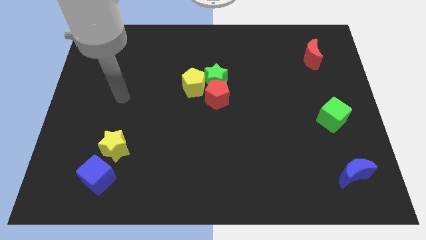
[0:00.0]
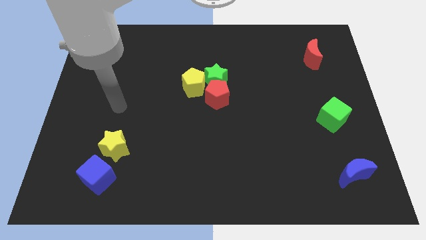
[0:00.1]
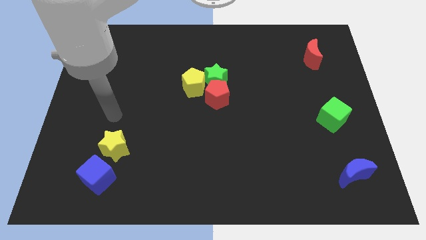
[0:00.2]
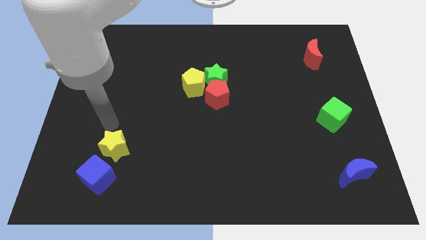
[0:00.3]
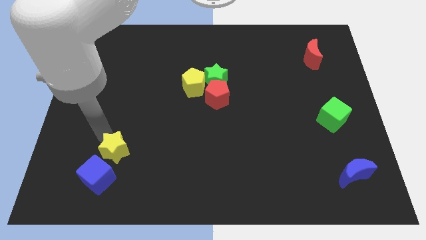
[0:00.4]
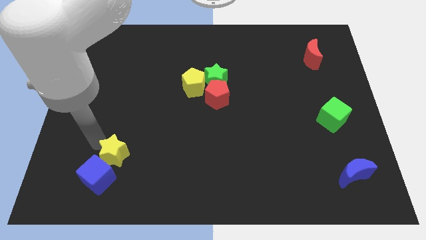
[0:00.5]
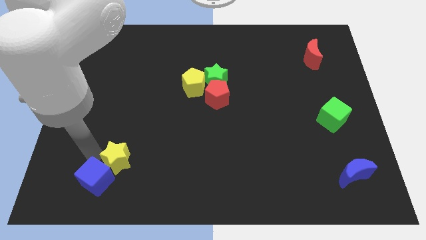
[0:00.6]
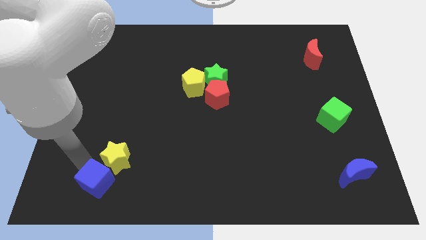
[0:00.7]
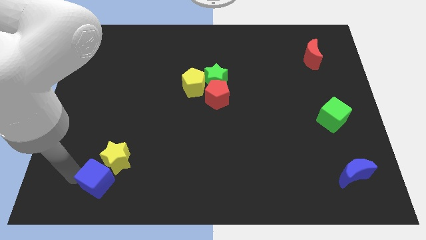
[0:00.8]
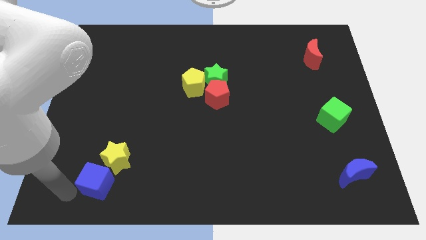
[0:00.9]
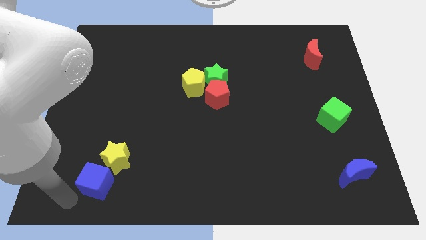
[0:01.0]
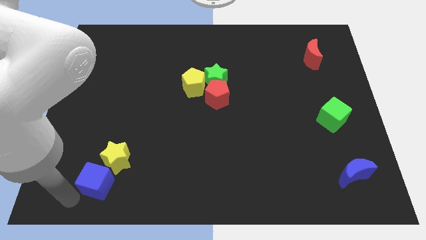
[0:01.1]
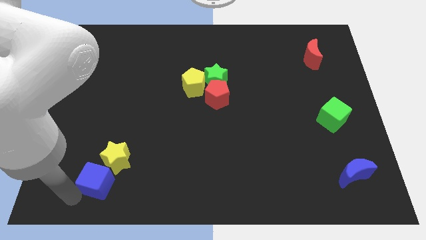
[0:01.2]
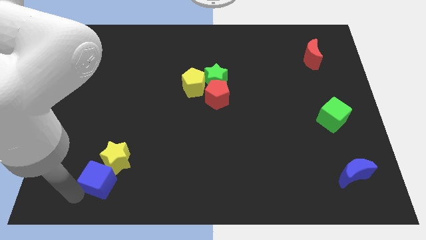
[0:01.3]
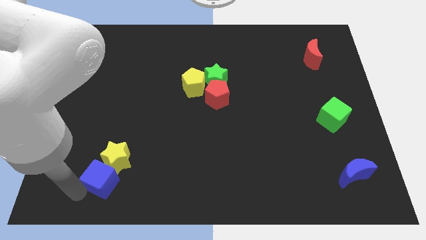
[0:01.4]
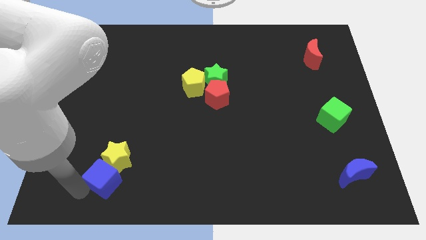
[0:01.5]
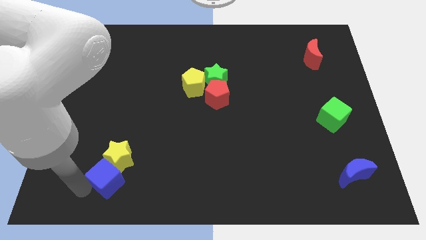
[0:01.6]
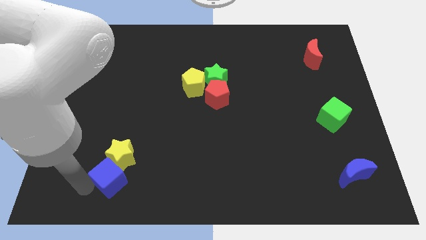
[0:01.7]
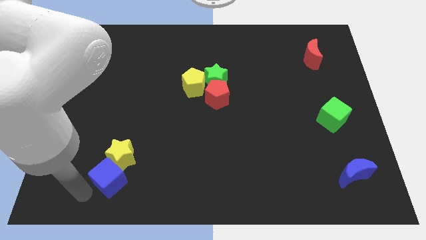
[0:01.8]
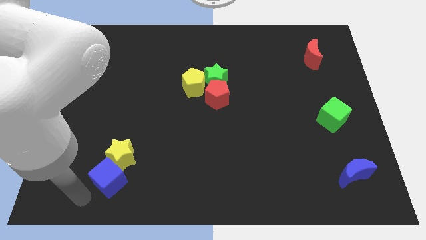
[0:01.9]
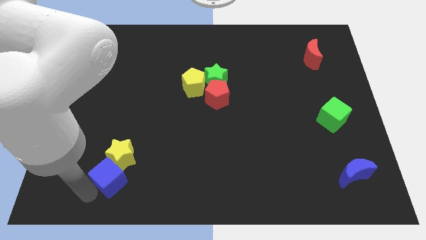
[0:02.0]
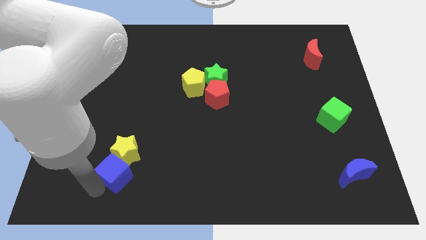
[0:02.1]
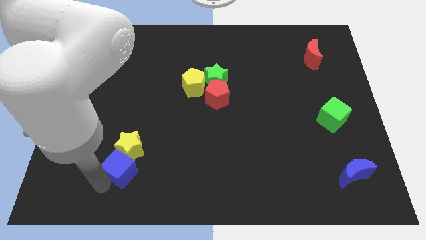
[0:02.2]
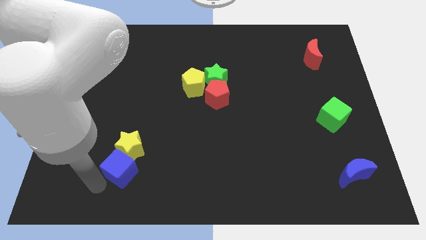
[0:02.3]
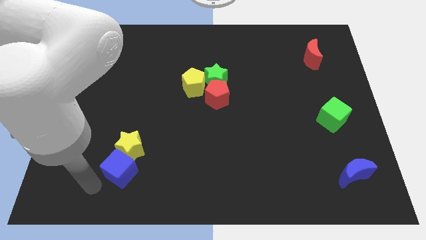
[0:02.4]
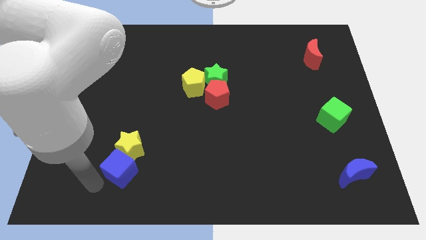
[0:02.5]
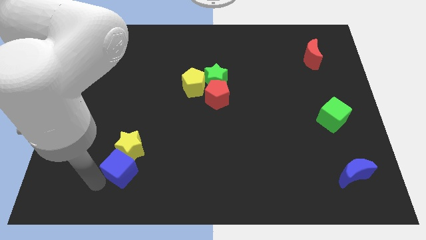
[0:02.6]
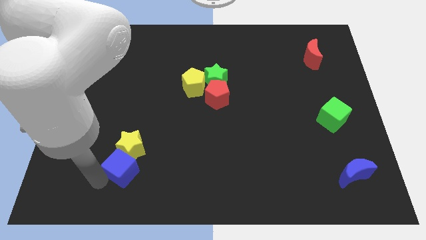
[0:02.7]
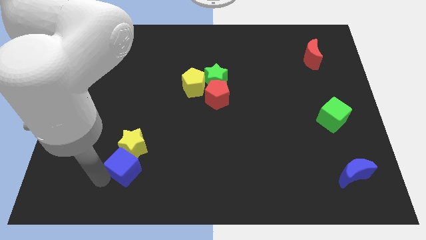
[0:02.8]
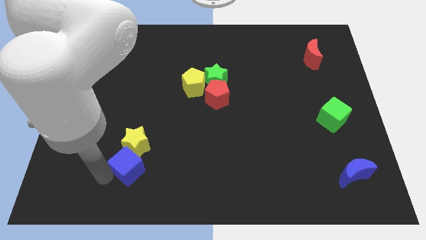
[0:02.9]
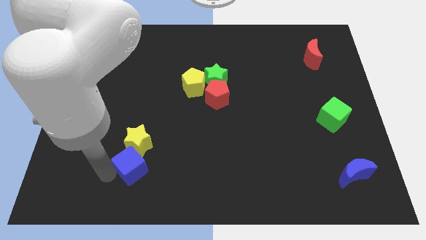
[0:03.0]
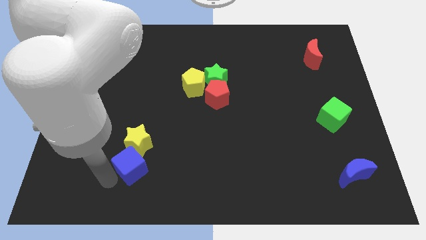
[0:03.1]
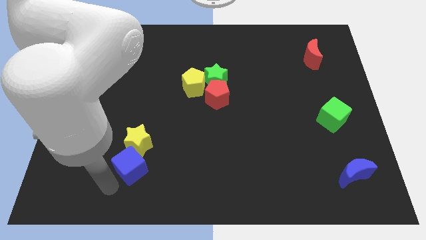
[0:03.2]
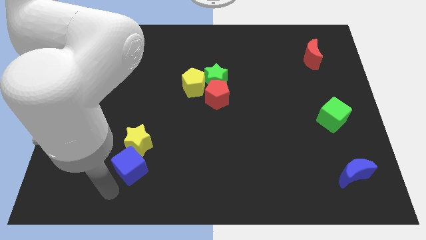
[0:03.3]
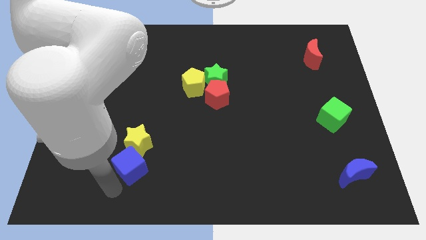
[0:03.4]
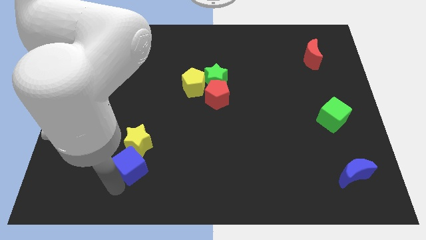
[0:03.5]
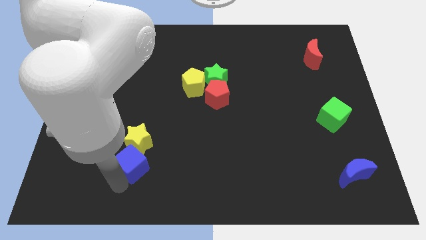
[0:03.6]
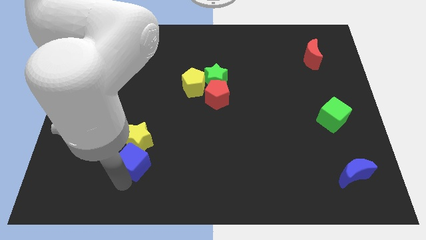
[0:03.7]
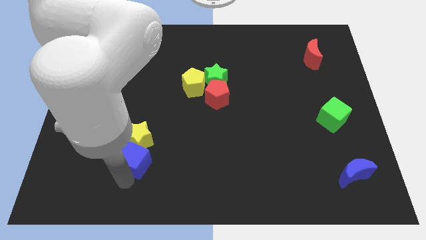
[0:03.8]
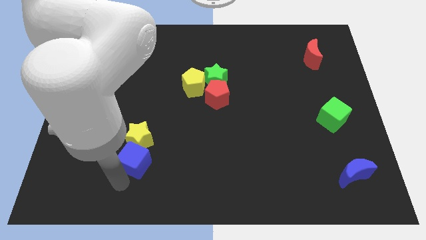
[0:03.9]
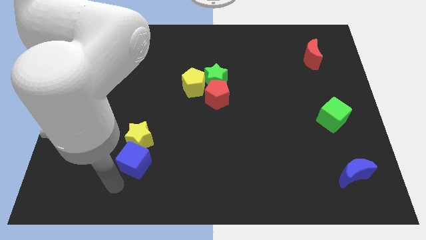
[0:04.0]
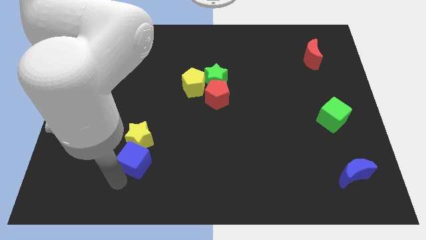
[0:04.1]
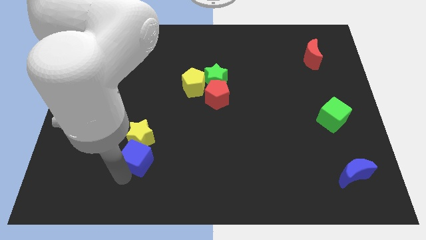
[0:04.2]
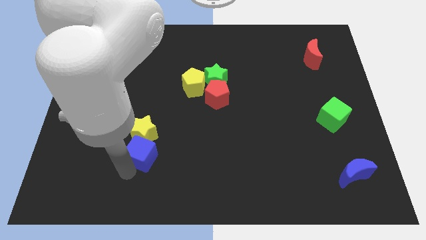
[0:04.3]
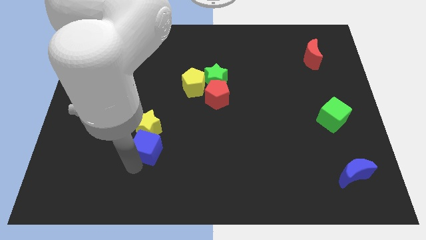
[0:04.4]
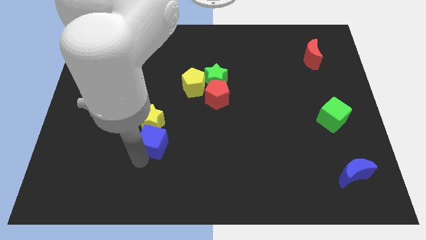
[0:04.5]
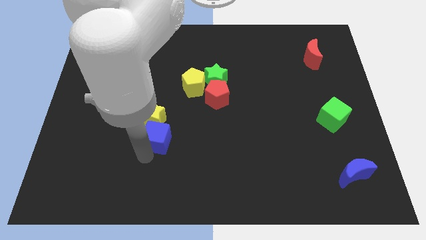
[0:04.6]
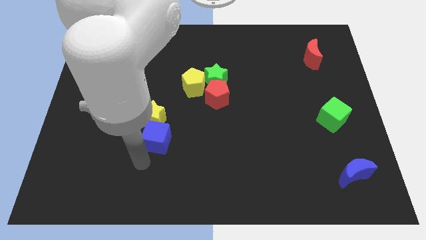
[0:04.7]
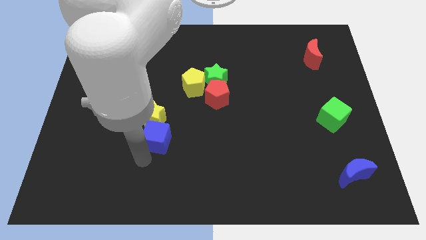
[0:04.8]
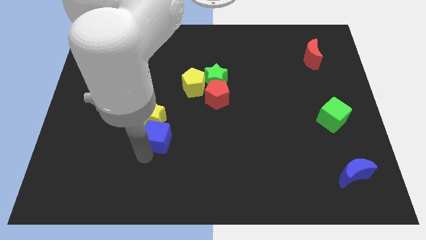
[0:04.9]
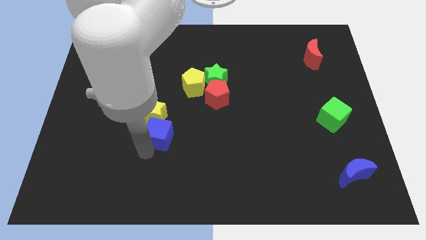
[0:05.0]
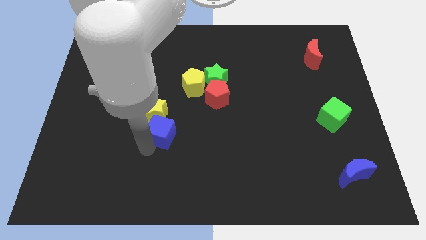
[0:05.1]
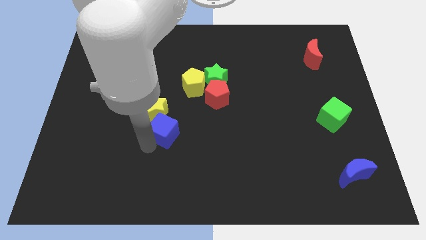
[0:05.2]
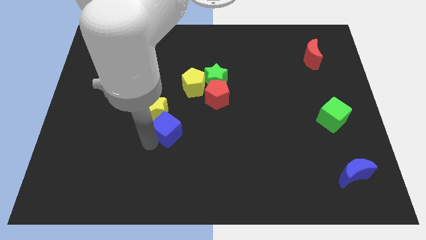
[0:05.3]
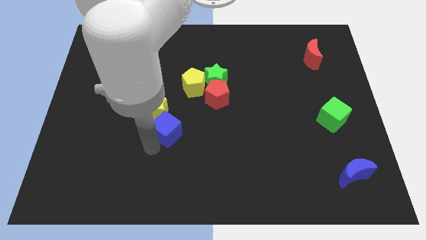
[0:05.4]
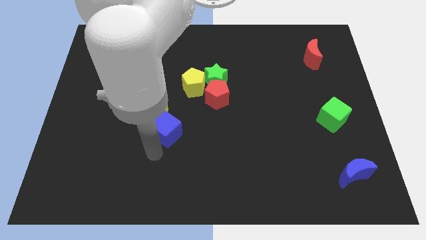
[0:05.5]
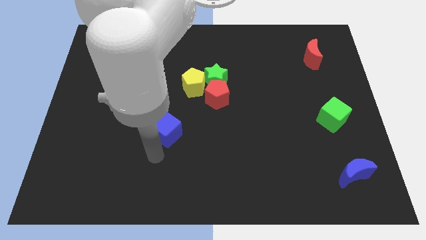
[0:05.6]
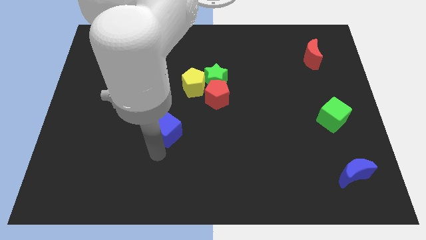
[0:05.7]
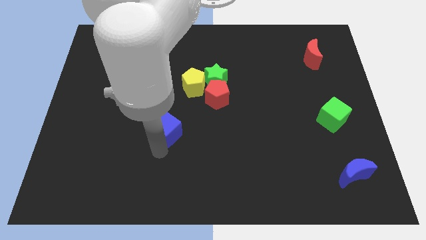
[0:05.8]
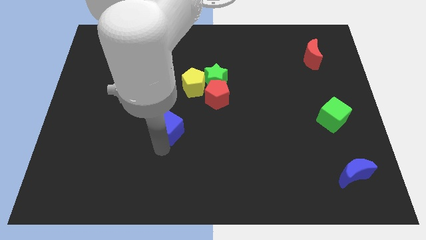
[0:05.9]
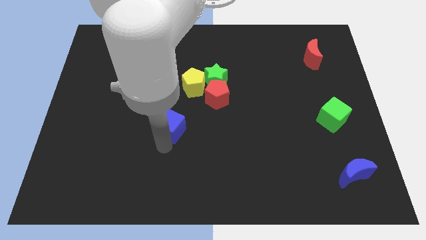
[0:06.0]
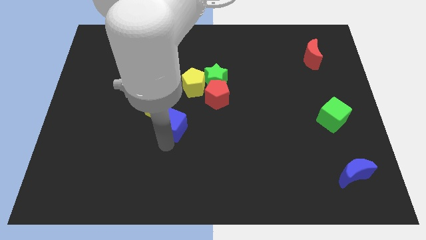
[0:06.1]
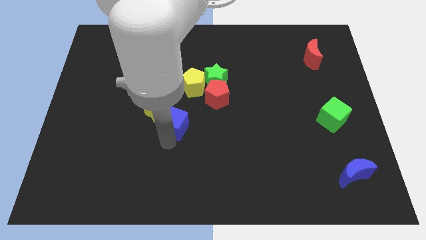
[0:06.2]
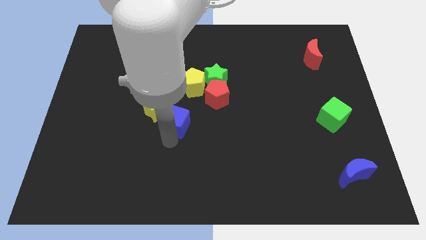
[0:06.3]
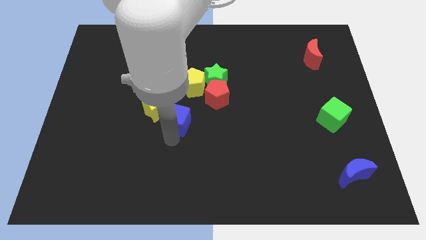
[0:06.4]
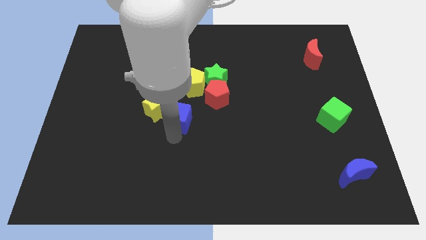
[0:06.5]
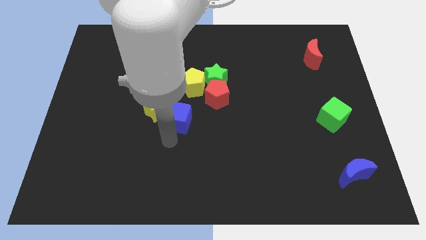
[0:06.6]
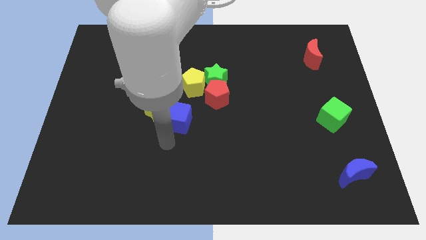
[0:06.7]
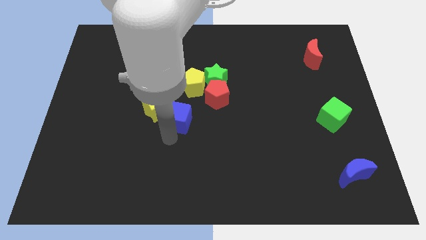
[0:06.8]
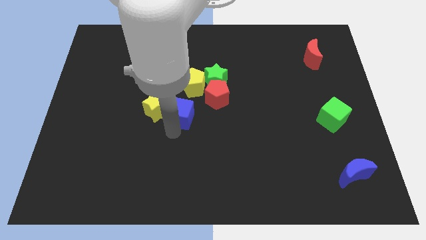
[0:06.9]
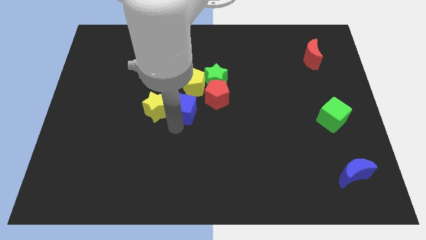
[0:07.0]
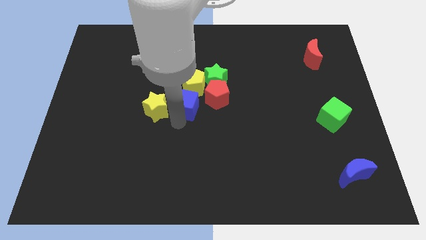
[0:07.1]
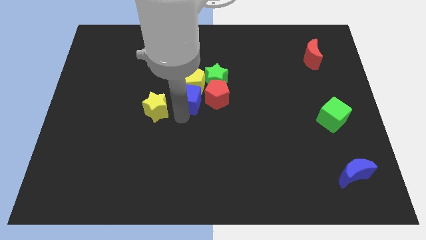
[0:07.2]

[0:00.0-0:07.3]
move the blue cube to the yellow pentagon
